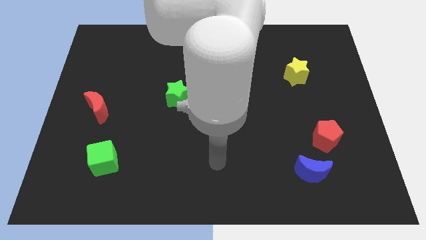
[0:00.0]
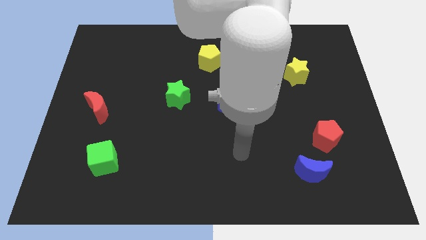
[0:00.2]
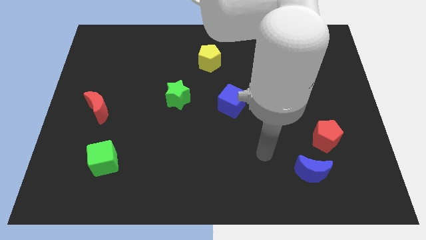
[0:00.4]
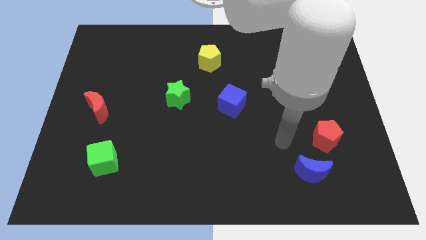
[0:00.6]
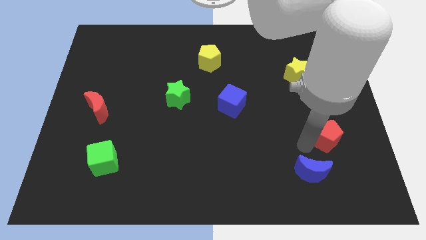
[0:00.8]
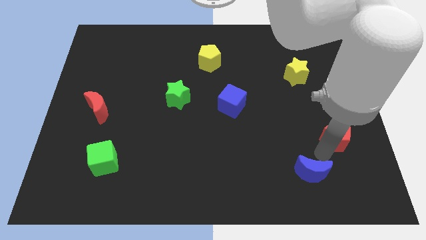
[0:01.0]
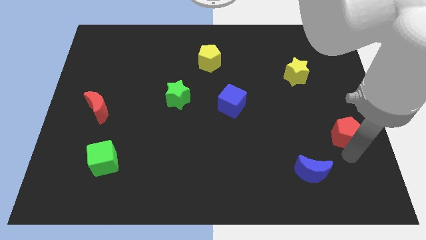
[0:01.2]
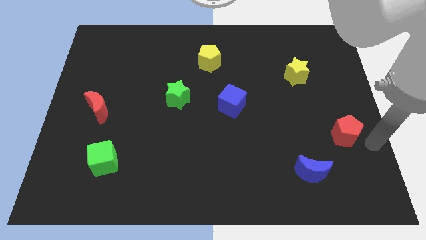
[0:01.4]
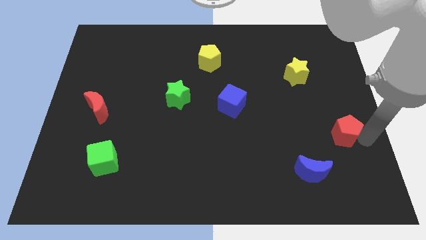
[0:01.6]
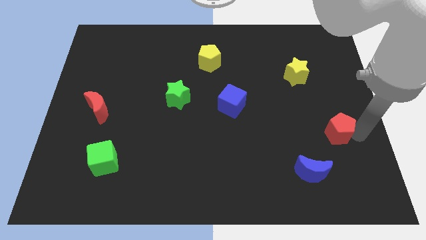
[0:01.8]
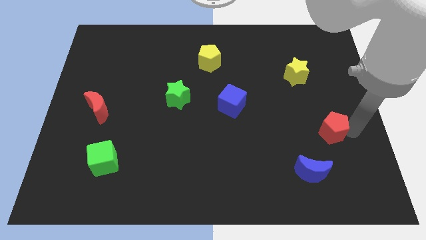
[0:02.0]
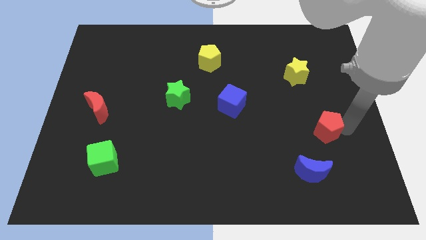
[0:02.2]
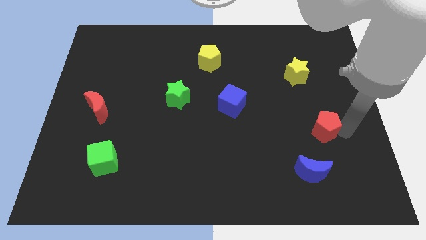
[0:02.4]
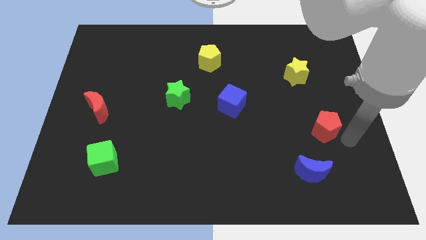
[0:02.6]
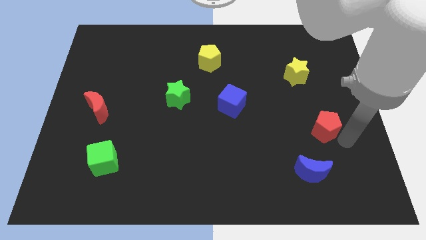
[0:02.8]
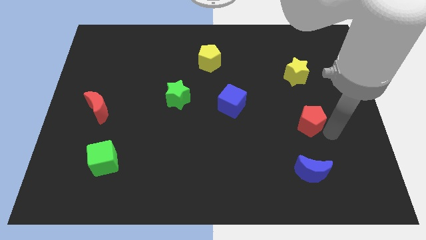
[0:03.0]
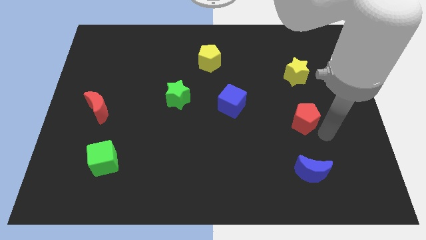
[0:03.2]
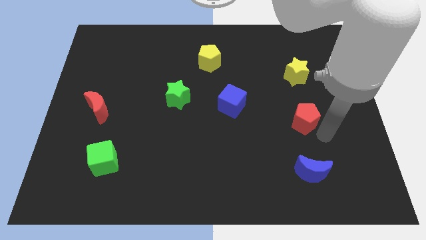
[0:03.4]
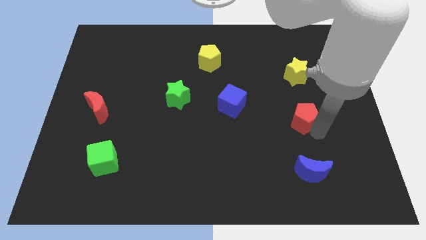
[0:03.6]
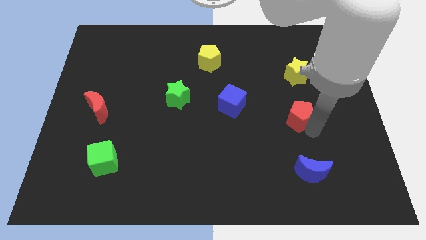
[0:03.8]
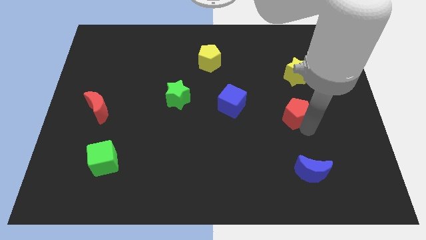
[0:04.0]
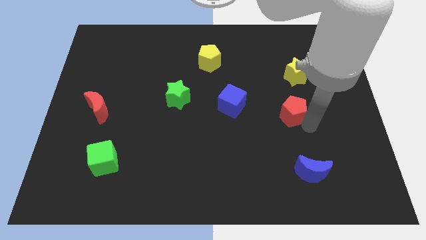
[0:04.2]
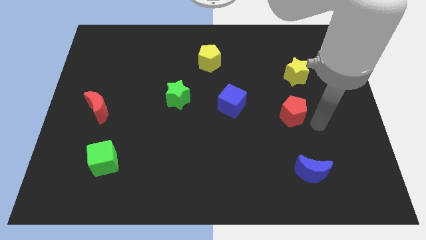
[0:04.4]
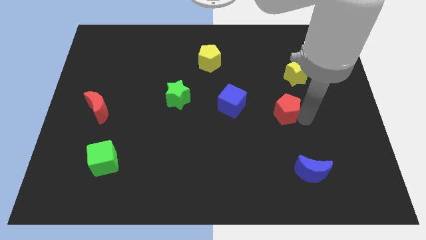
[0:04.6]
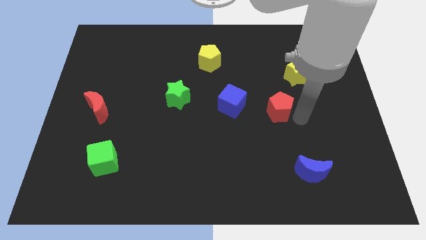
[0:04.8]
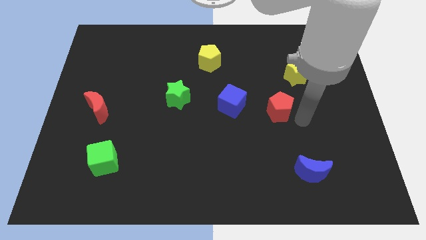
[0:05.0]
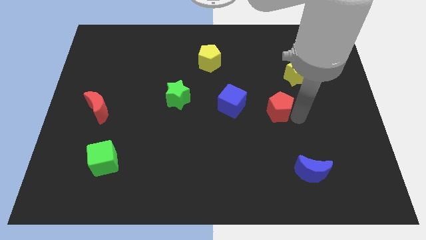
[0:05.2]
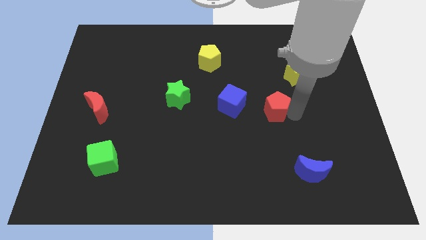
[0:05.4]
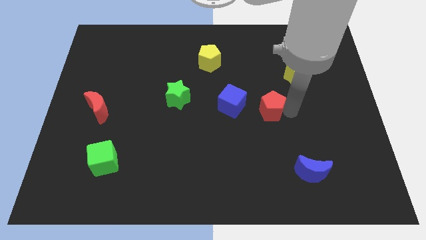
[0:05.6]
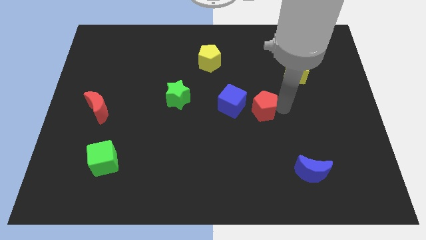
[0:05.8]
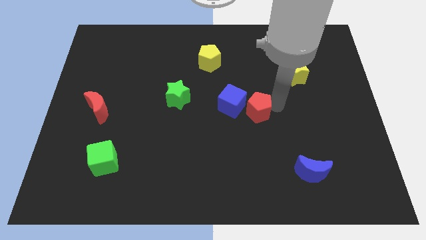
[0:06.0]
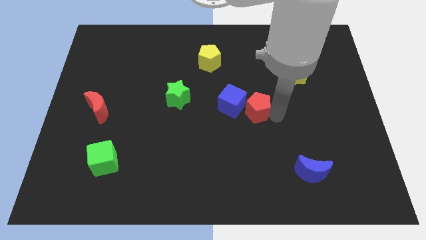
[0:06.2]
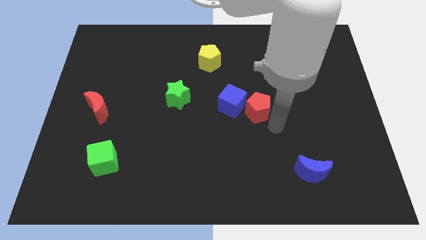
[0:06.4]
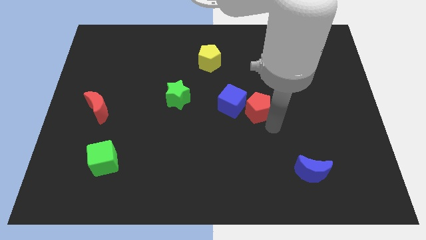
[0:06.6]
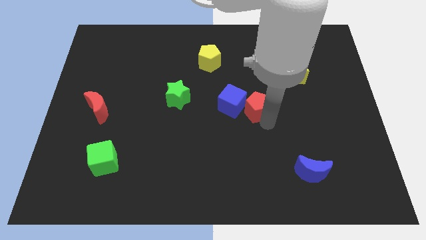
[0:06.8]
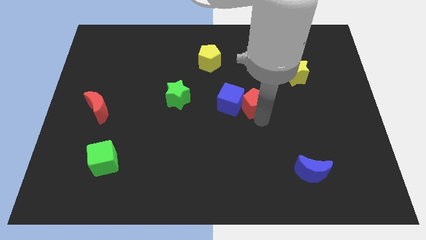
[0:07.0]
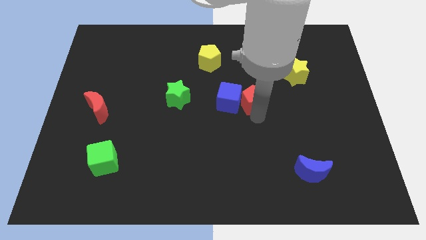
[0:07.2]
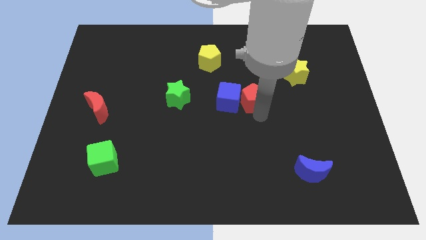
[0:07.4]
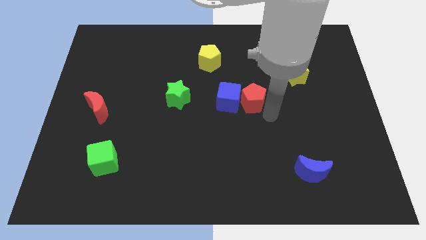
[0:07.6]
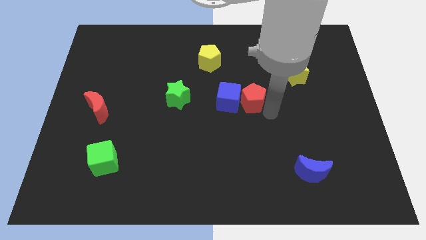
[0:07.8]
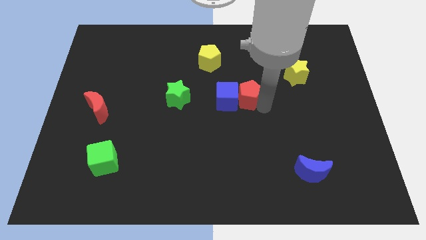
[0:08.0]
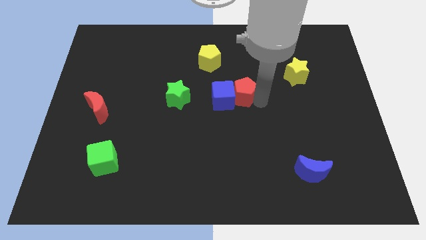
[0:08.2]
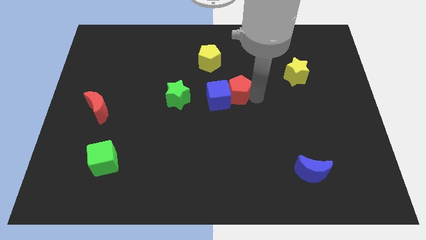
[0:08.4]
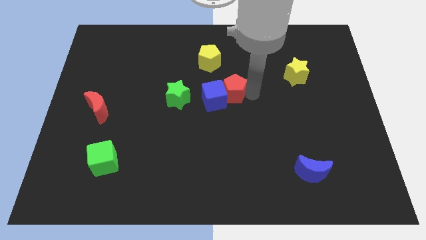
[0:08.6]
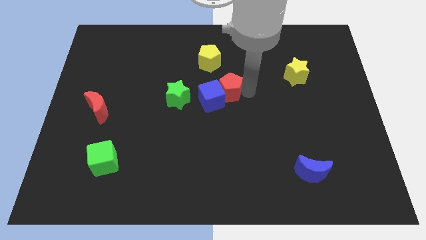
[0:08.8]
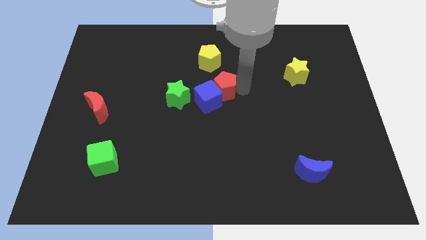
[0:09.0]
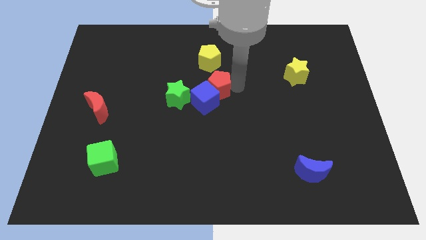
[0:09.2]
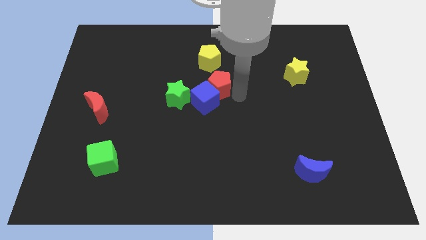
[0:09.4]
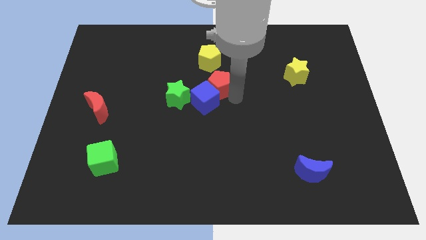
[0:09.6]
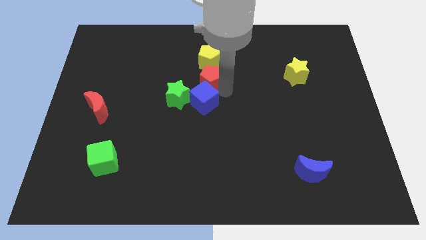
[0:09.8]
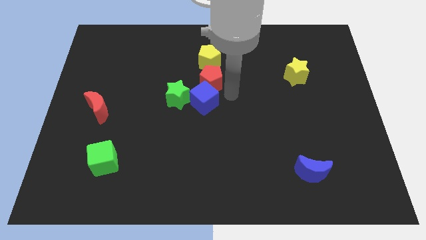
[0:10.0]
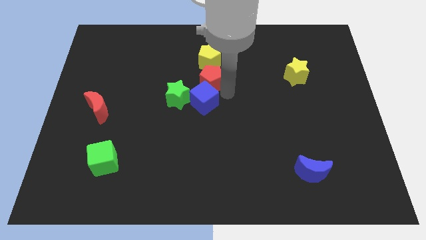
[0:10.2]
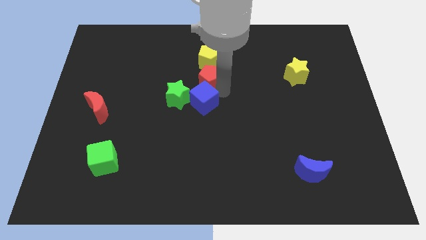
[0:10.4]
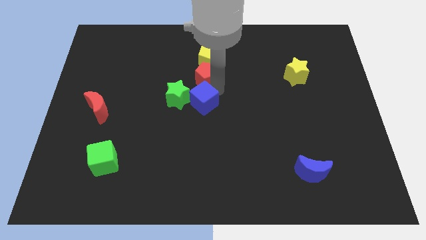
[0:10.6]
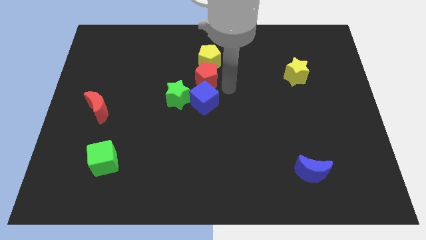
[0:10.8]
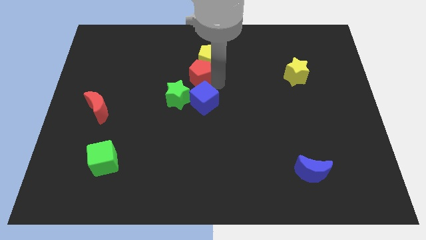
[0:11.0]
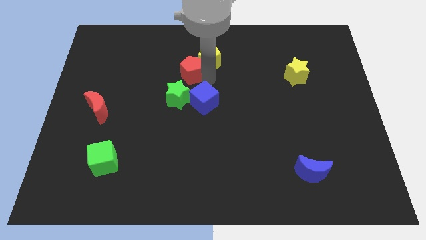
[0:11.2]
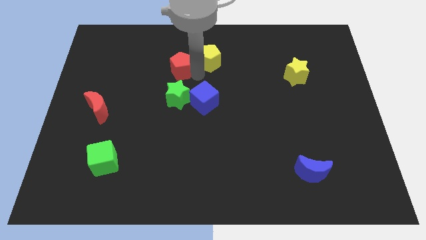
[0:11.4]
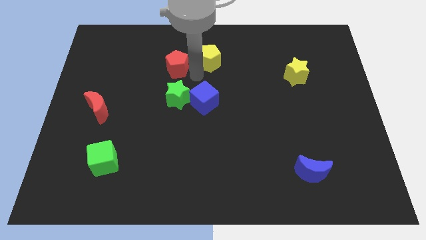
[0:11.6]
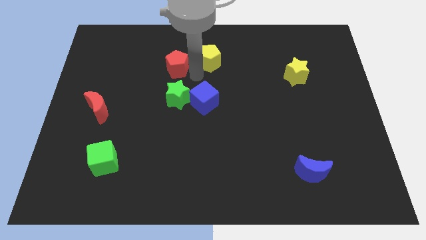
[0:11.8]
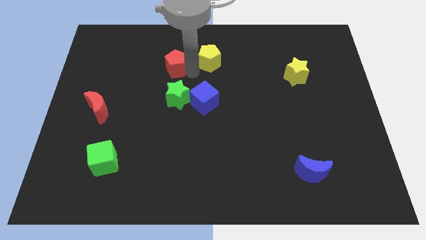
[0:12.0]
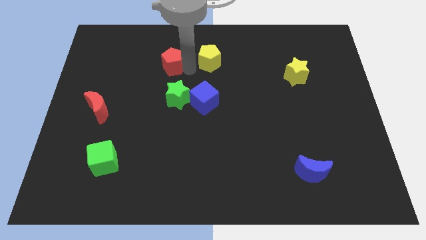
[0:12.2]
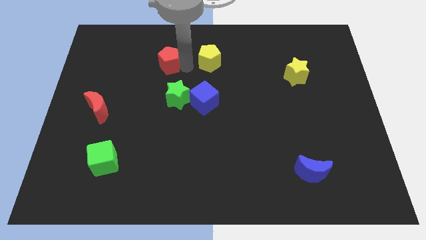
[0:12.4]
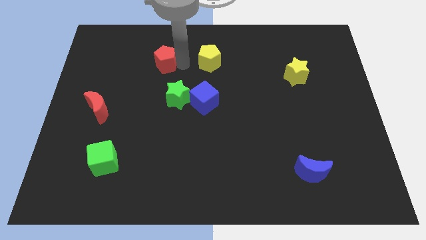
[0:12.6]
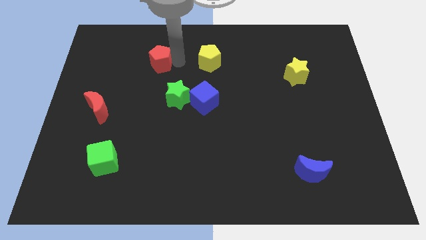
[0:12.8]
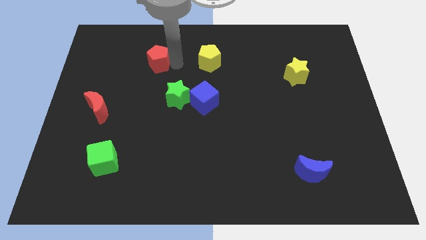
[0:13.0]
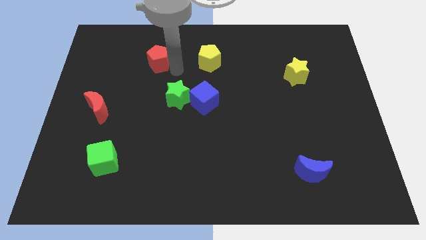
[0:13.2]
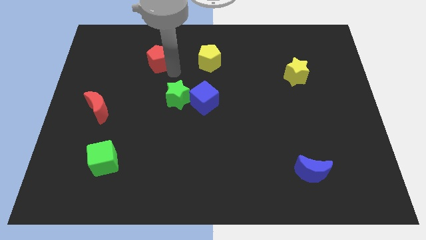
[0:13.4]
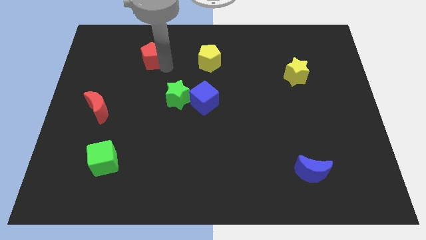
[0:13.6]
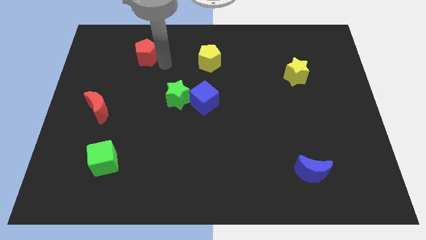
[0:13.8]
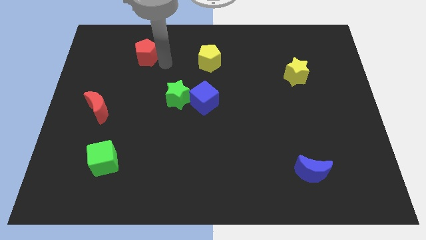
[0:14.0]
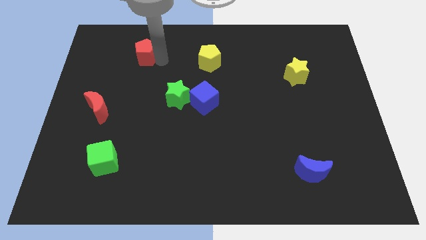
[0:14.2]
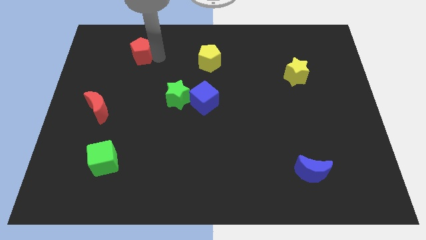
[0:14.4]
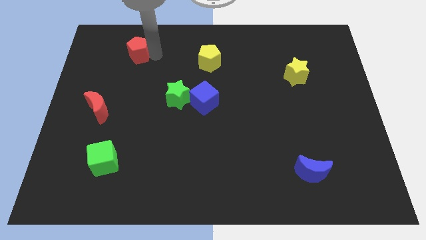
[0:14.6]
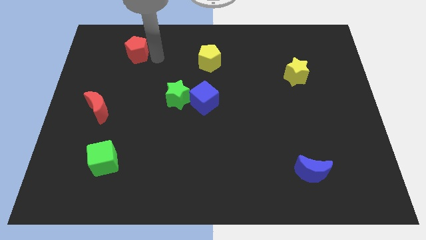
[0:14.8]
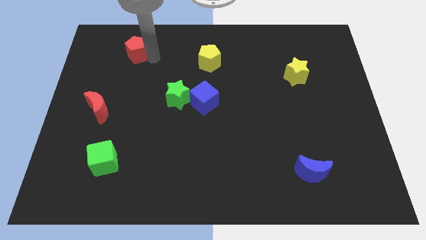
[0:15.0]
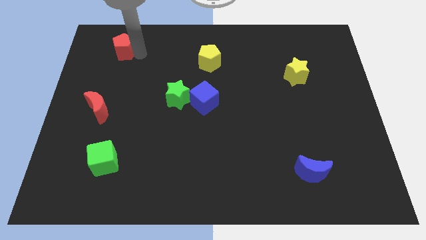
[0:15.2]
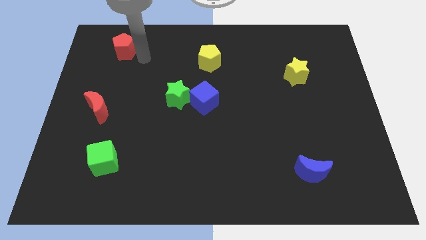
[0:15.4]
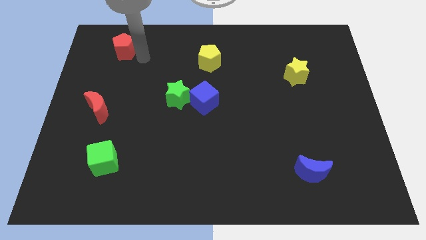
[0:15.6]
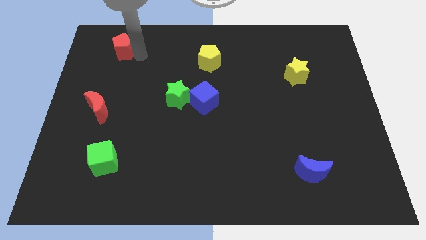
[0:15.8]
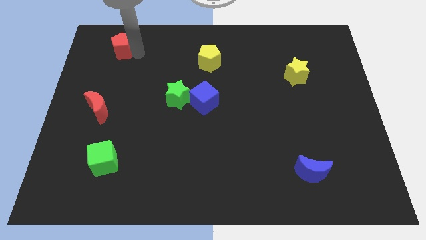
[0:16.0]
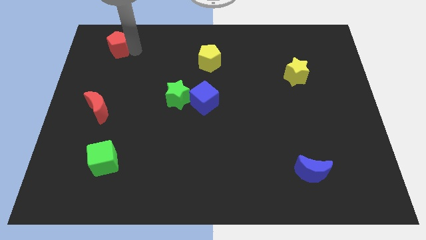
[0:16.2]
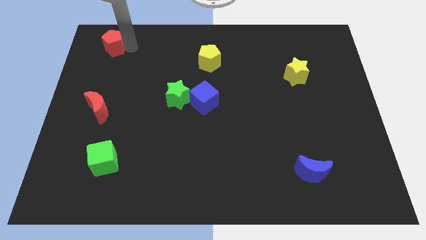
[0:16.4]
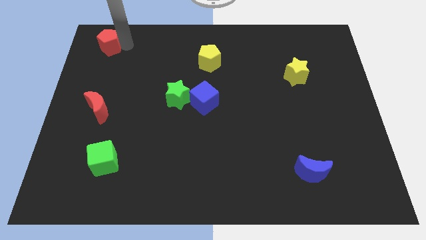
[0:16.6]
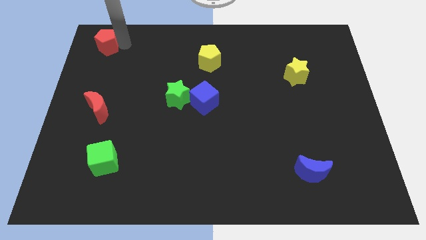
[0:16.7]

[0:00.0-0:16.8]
slide the red pentagon to the top left corner
